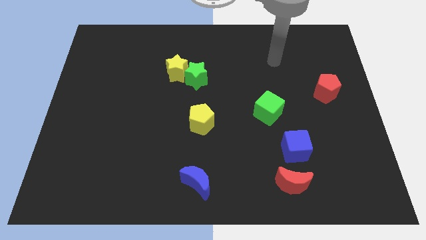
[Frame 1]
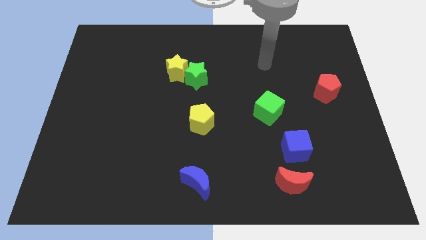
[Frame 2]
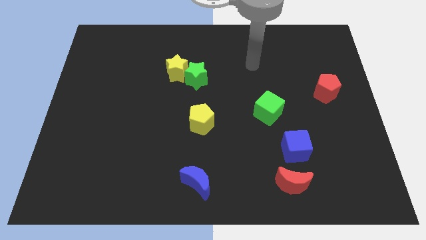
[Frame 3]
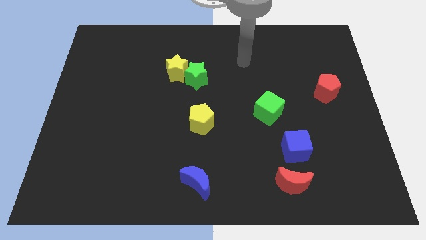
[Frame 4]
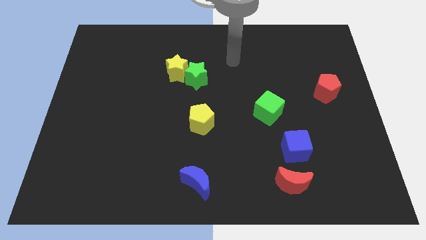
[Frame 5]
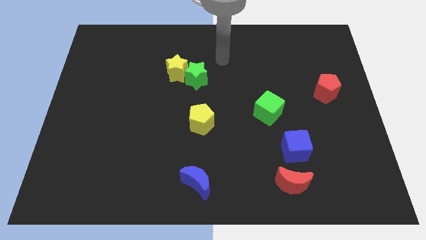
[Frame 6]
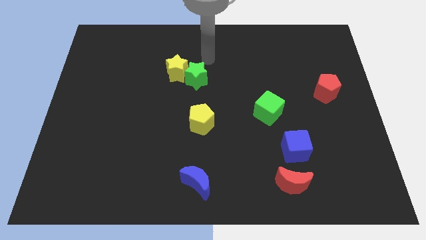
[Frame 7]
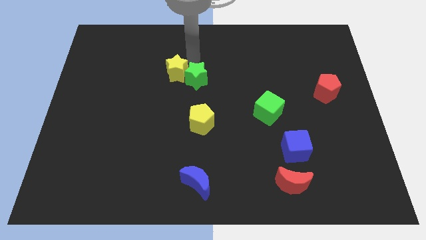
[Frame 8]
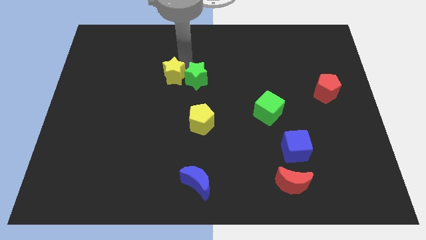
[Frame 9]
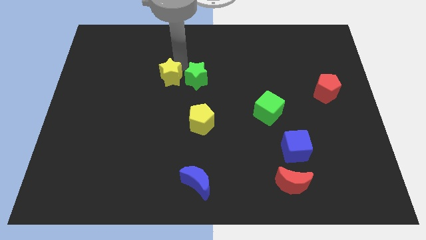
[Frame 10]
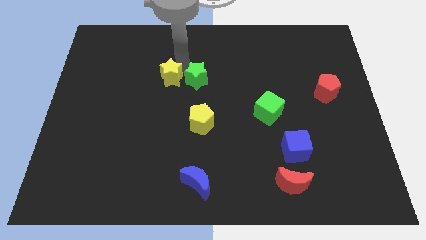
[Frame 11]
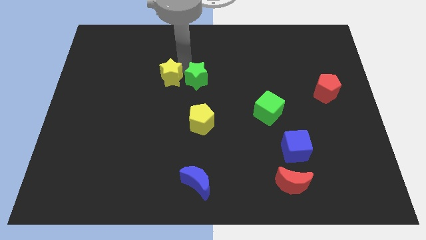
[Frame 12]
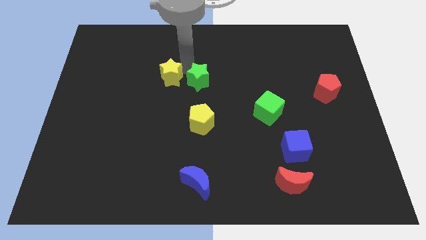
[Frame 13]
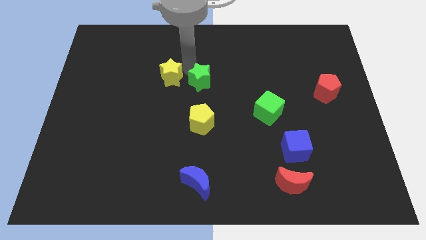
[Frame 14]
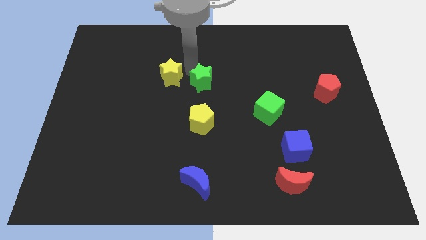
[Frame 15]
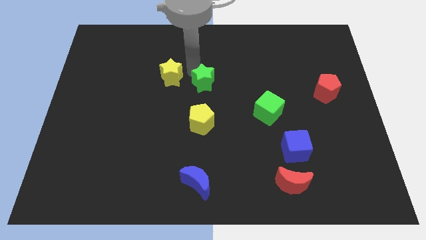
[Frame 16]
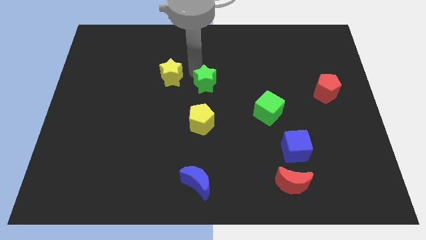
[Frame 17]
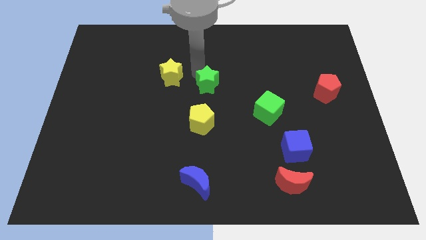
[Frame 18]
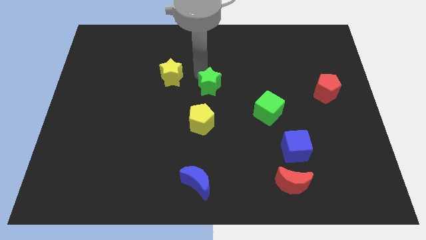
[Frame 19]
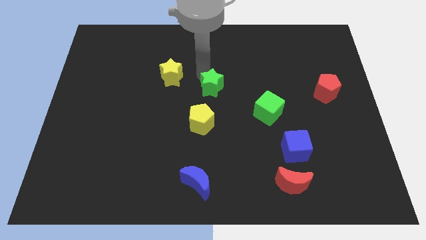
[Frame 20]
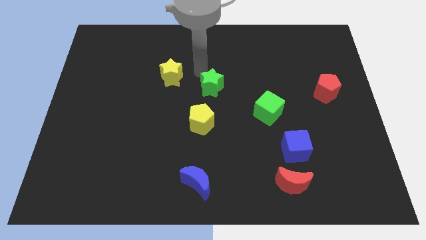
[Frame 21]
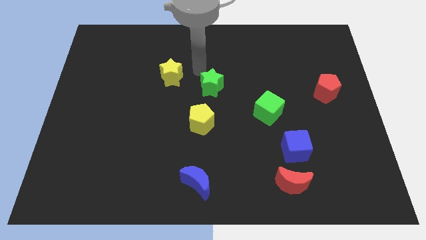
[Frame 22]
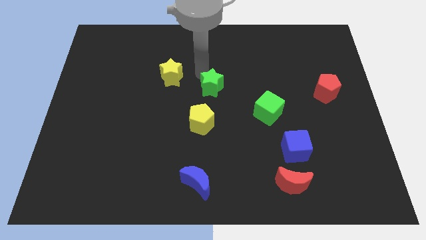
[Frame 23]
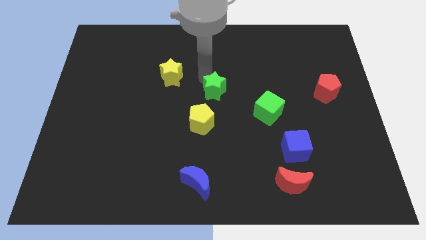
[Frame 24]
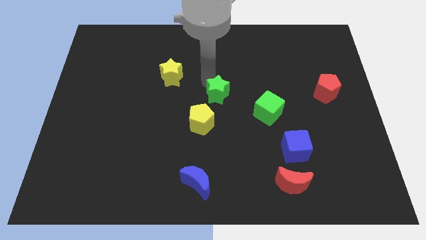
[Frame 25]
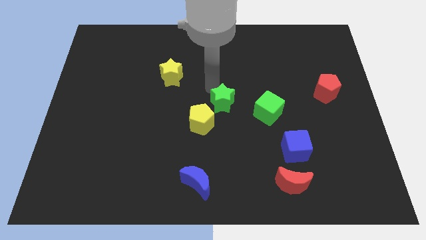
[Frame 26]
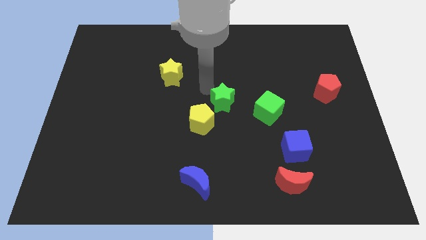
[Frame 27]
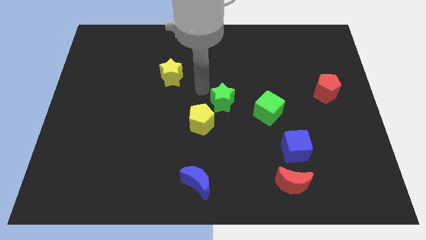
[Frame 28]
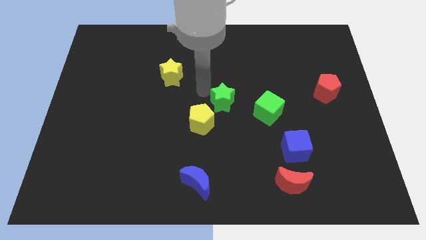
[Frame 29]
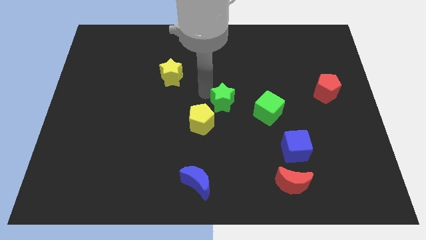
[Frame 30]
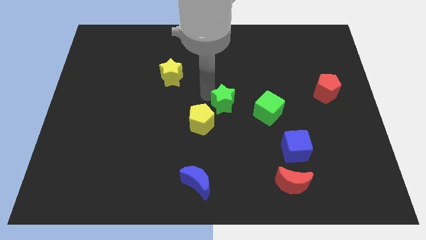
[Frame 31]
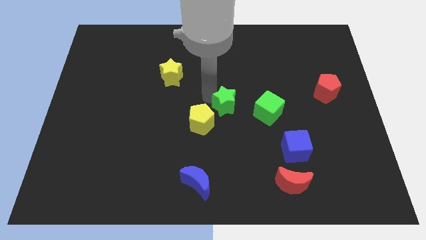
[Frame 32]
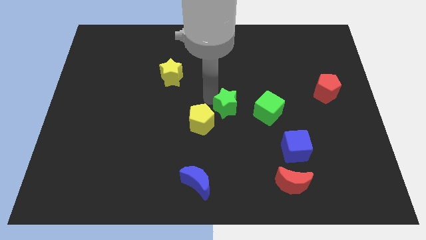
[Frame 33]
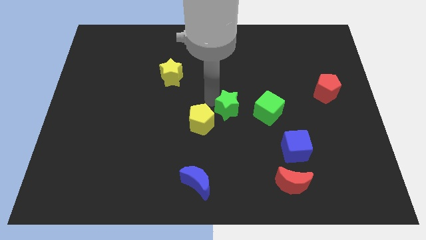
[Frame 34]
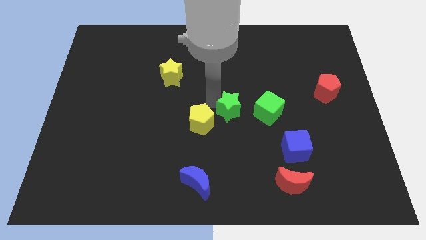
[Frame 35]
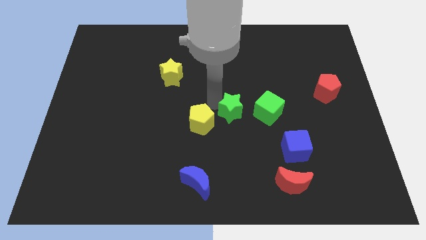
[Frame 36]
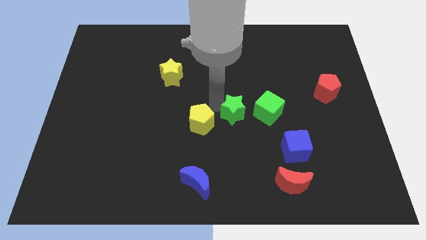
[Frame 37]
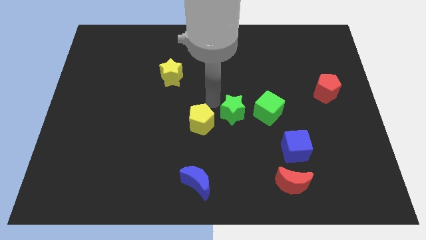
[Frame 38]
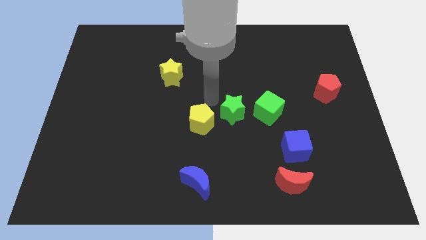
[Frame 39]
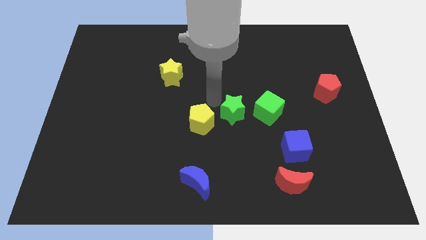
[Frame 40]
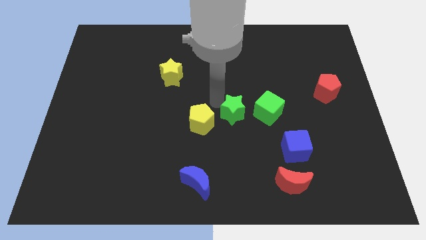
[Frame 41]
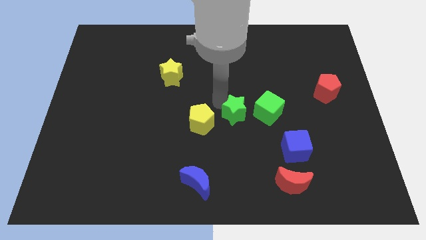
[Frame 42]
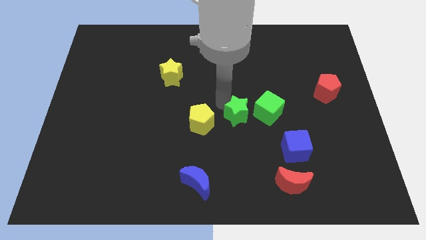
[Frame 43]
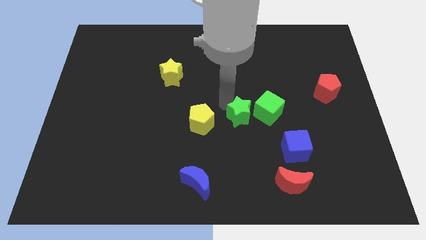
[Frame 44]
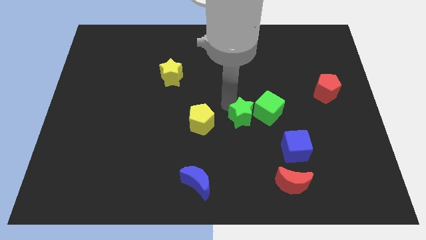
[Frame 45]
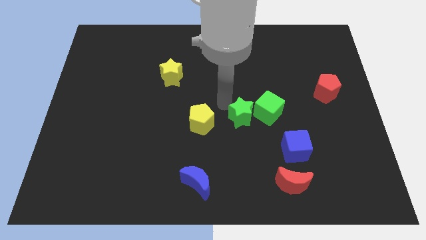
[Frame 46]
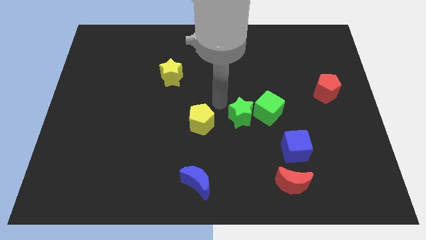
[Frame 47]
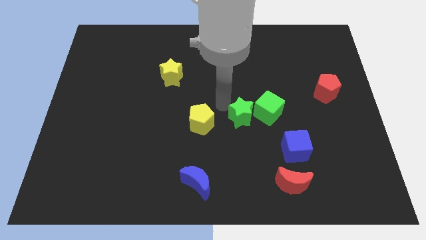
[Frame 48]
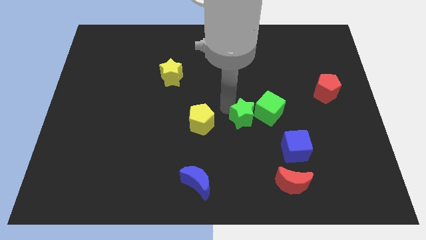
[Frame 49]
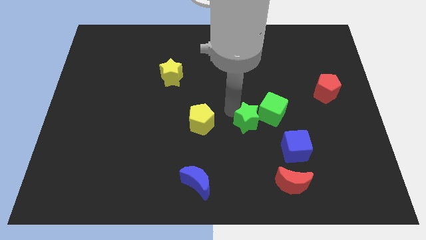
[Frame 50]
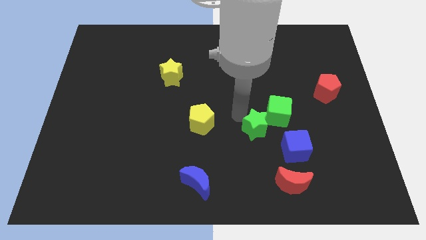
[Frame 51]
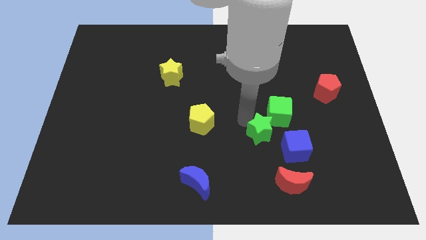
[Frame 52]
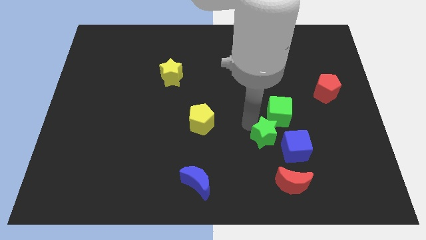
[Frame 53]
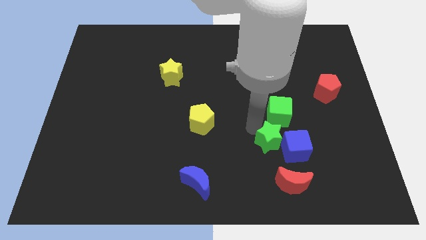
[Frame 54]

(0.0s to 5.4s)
put the green star next to the blue cube

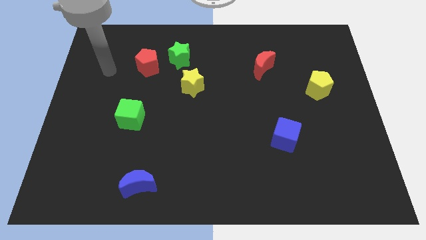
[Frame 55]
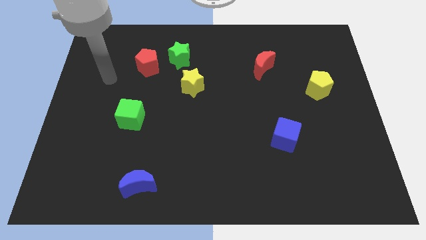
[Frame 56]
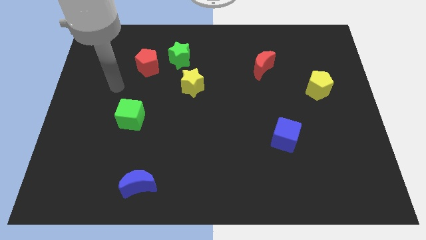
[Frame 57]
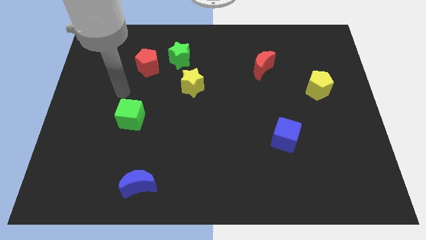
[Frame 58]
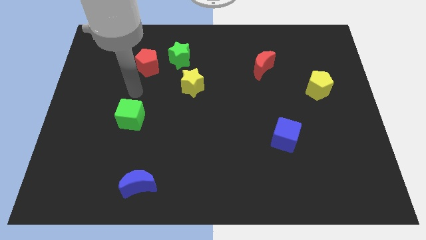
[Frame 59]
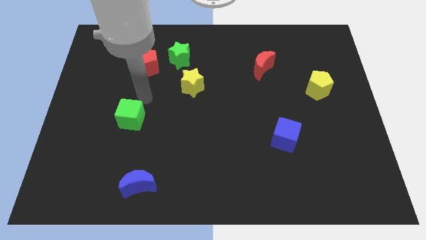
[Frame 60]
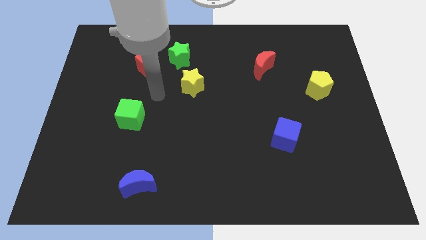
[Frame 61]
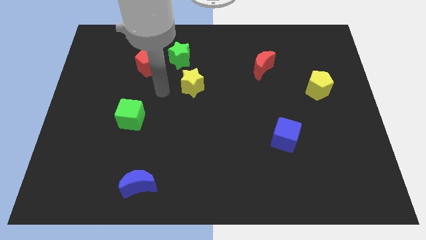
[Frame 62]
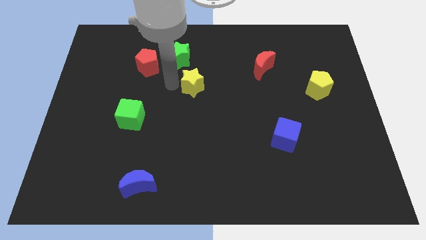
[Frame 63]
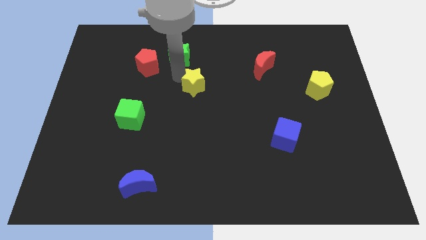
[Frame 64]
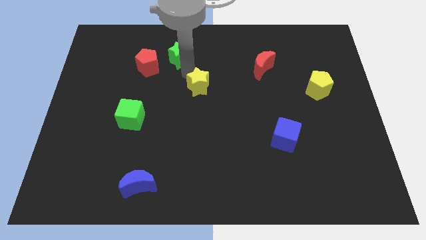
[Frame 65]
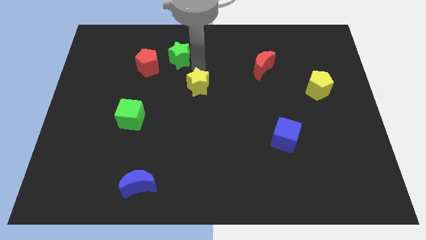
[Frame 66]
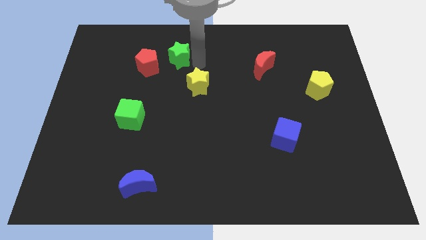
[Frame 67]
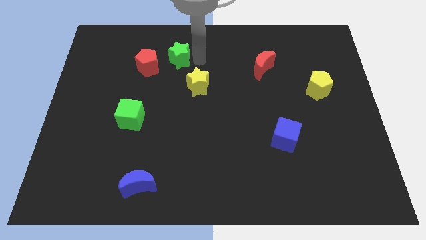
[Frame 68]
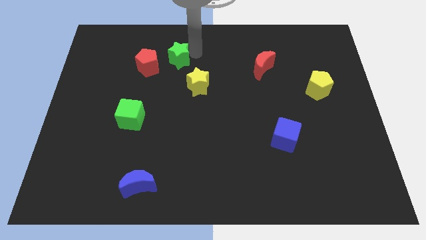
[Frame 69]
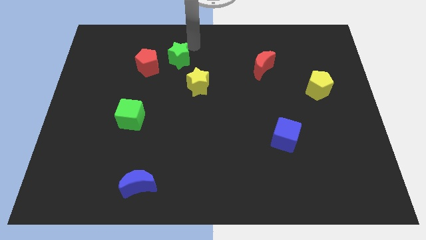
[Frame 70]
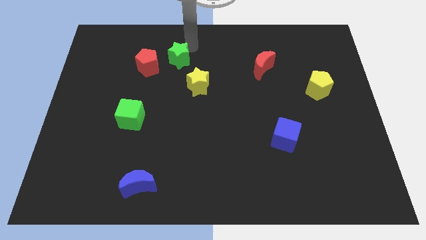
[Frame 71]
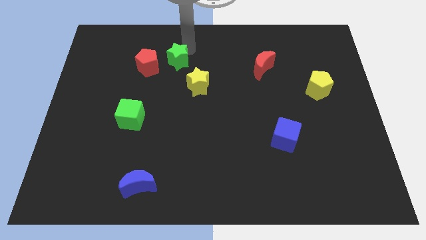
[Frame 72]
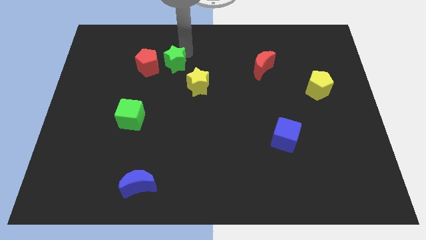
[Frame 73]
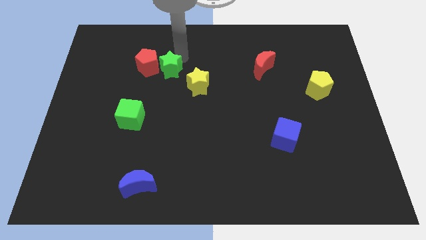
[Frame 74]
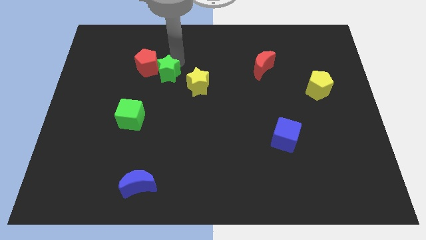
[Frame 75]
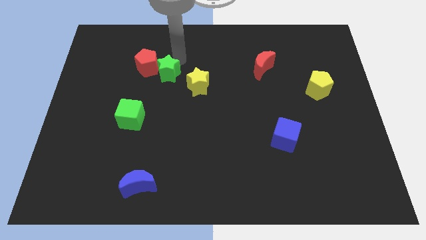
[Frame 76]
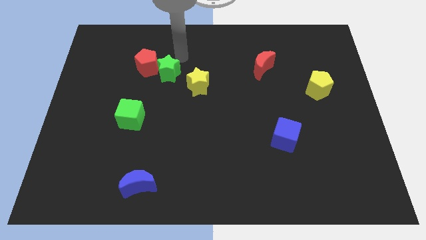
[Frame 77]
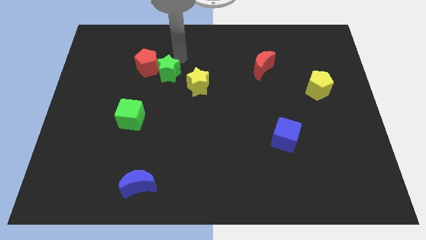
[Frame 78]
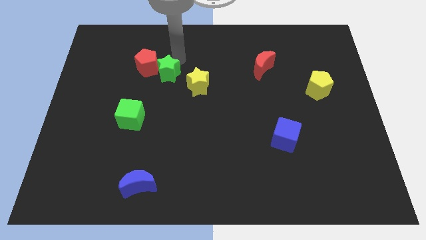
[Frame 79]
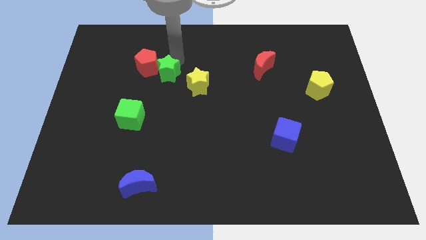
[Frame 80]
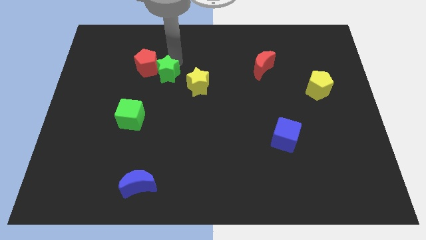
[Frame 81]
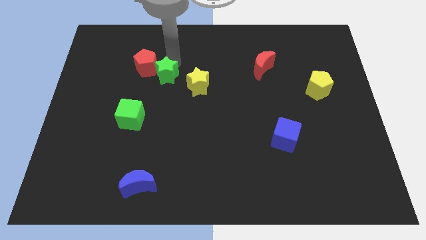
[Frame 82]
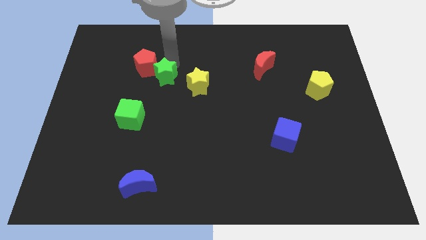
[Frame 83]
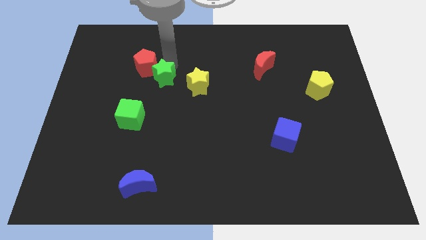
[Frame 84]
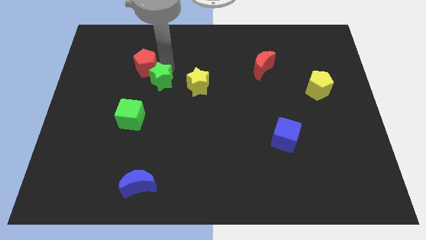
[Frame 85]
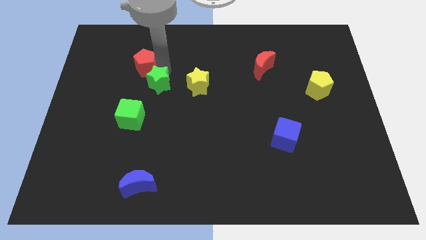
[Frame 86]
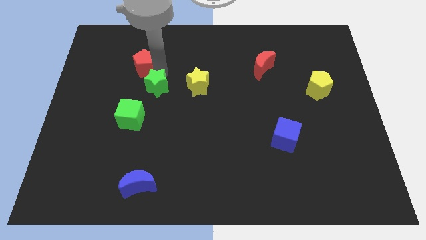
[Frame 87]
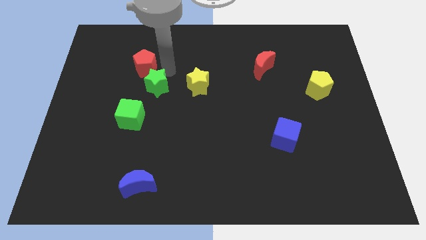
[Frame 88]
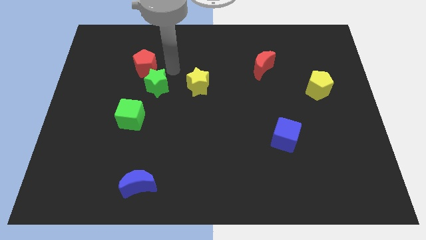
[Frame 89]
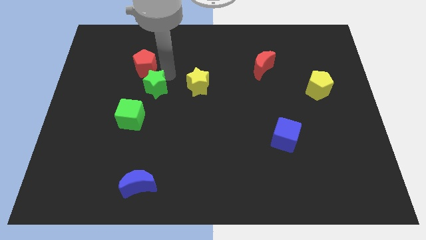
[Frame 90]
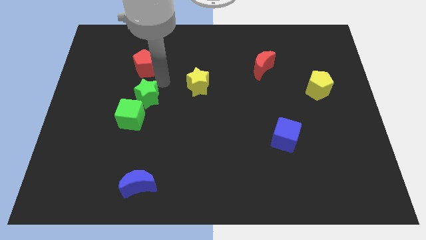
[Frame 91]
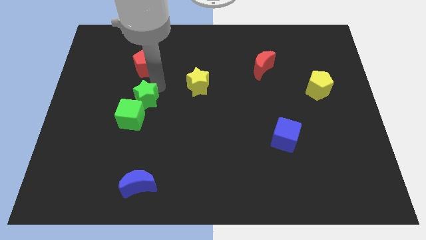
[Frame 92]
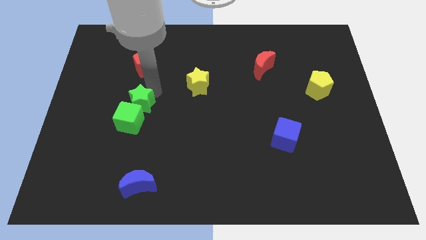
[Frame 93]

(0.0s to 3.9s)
move the green star towards the green cube
